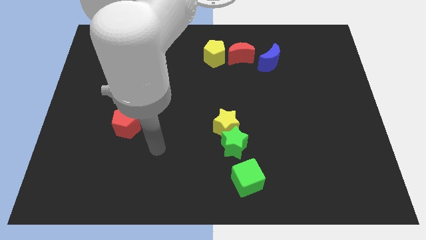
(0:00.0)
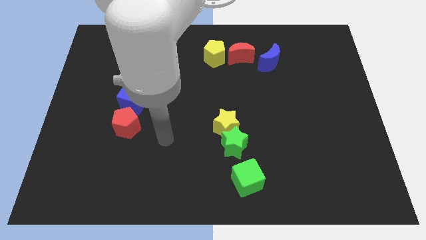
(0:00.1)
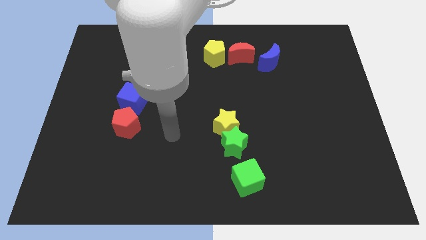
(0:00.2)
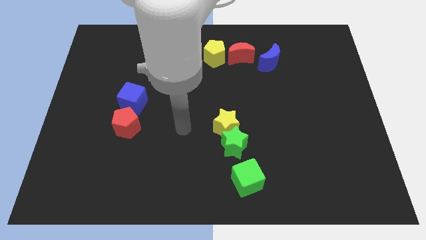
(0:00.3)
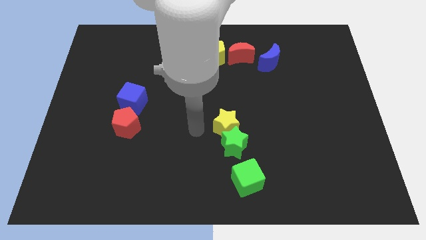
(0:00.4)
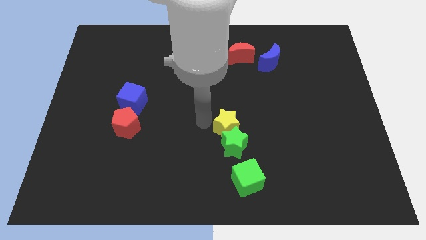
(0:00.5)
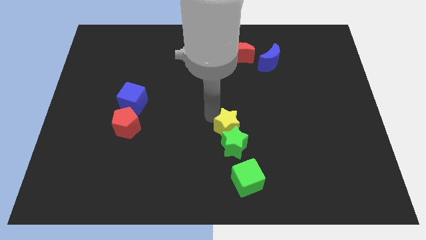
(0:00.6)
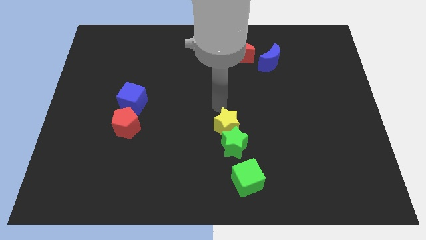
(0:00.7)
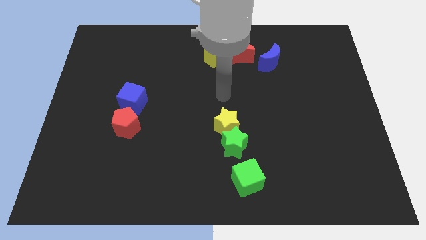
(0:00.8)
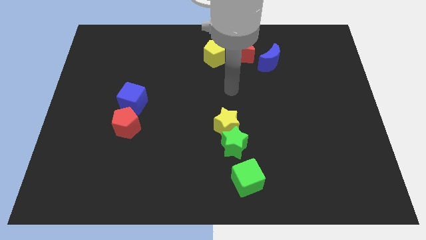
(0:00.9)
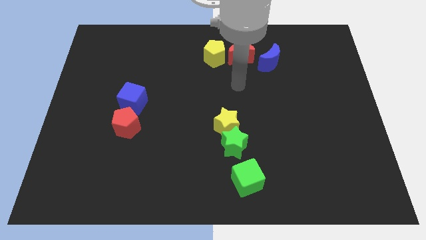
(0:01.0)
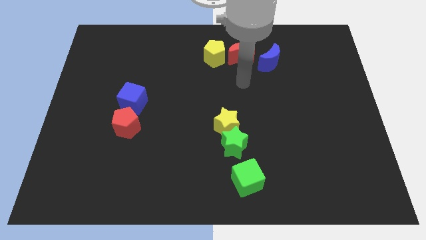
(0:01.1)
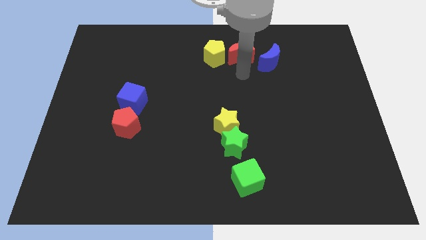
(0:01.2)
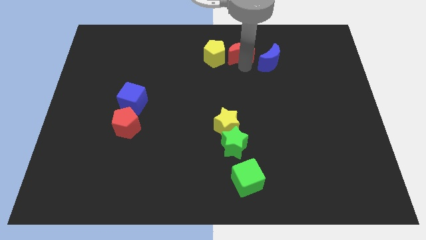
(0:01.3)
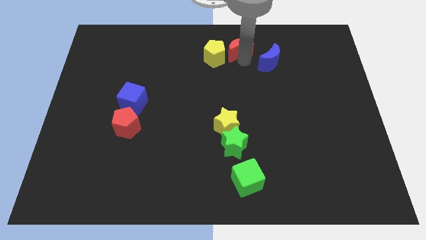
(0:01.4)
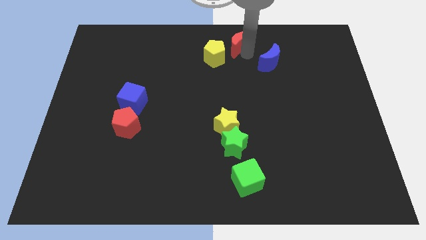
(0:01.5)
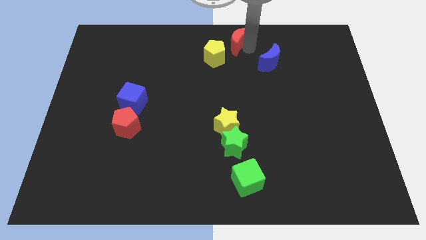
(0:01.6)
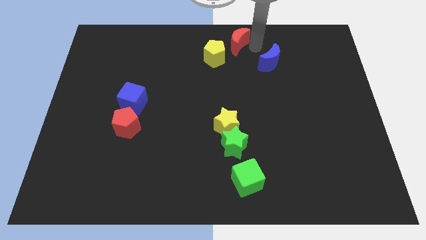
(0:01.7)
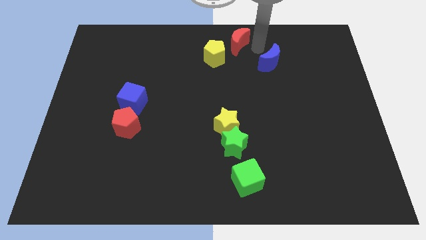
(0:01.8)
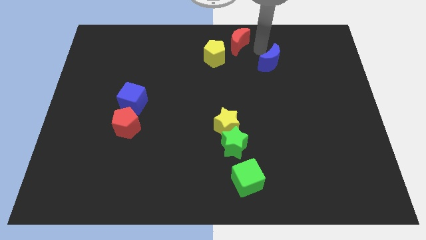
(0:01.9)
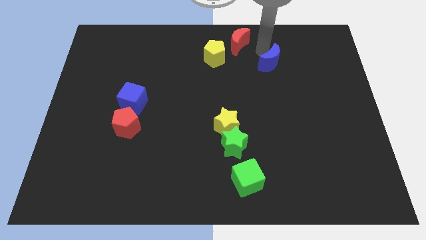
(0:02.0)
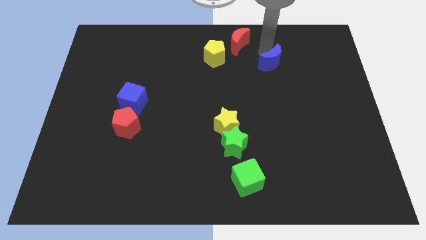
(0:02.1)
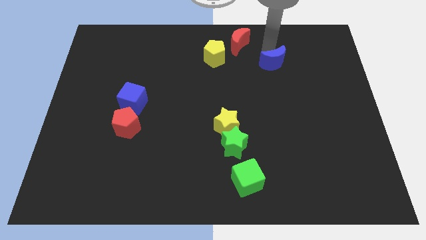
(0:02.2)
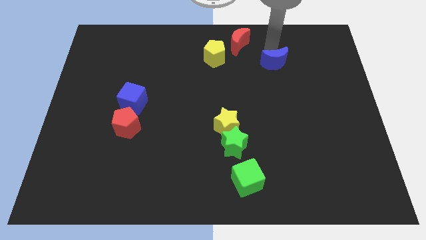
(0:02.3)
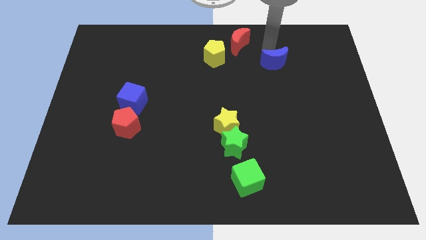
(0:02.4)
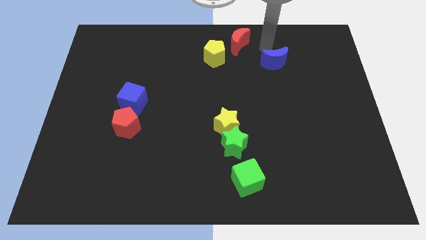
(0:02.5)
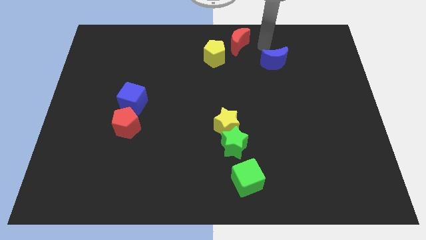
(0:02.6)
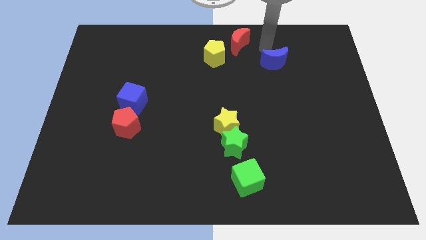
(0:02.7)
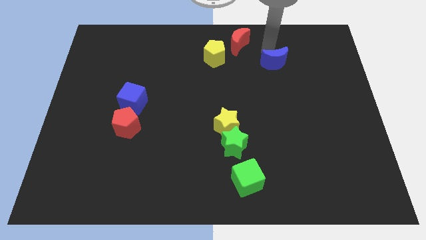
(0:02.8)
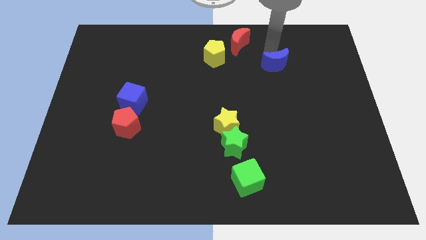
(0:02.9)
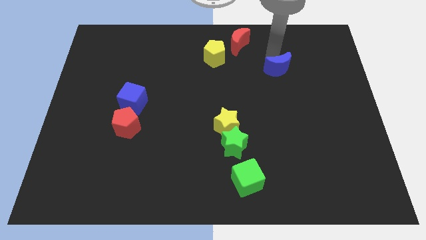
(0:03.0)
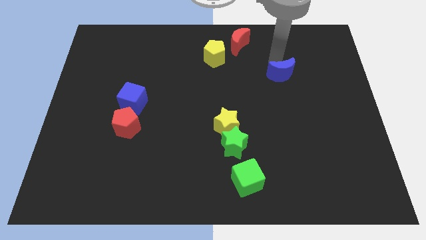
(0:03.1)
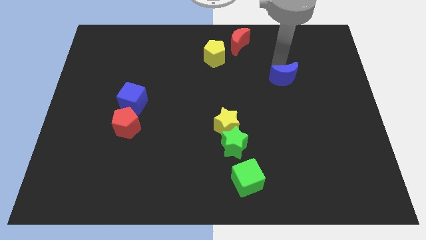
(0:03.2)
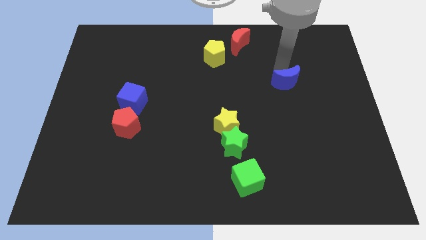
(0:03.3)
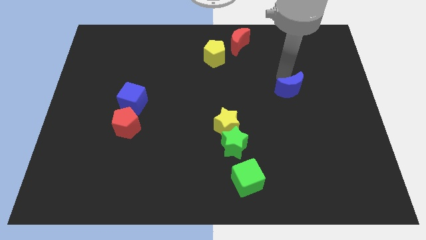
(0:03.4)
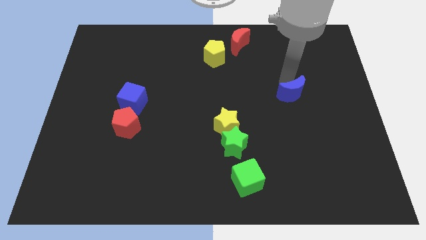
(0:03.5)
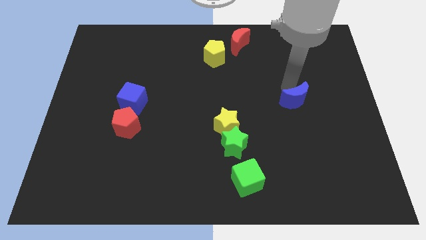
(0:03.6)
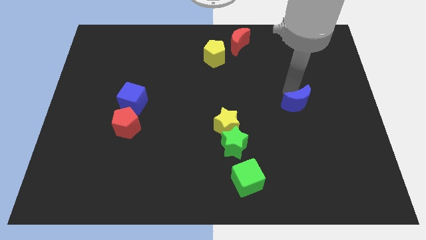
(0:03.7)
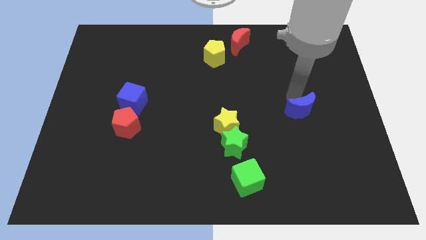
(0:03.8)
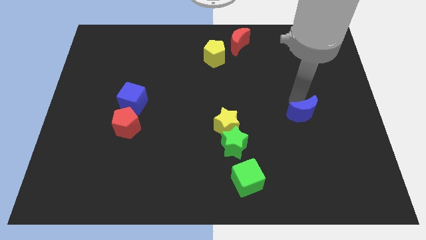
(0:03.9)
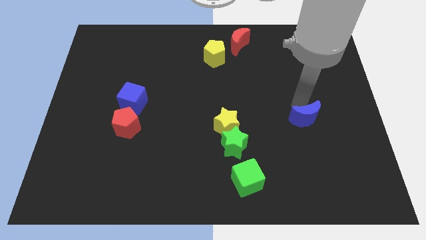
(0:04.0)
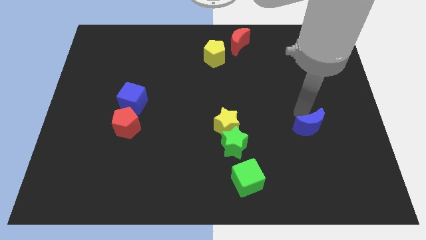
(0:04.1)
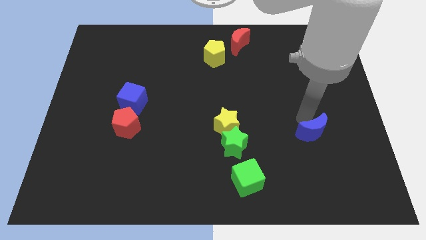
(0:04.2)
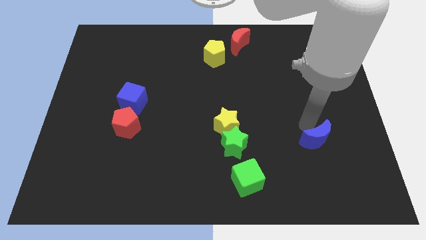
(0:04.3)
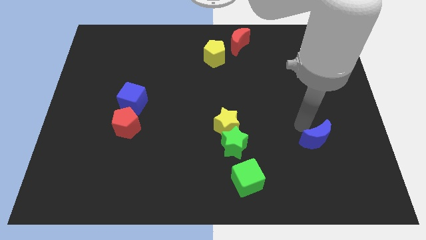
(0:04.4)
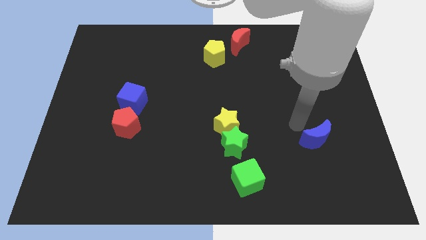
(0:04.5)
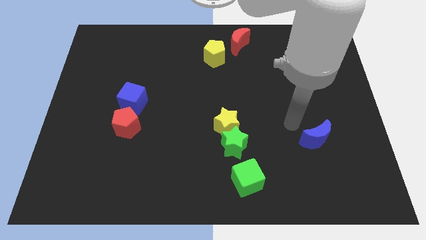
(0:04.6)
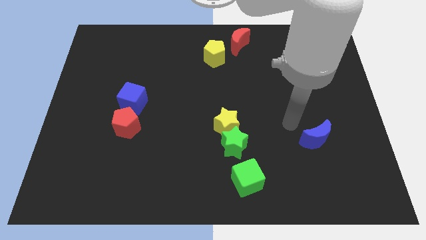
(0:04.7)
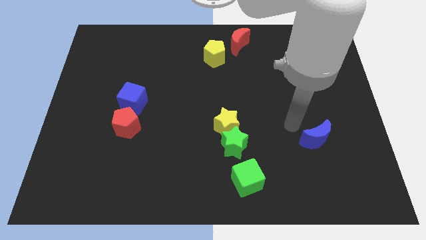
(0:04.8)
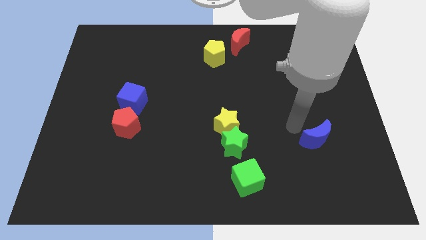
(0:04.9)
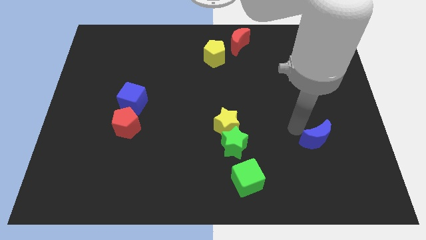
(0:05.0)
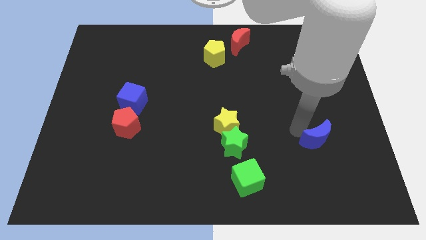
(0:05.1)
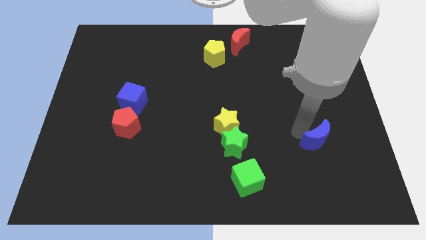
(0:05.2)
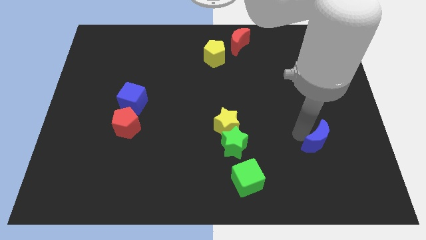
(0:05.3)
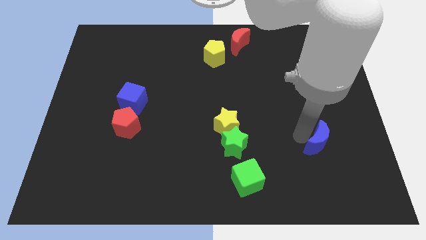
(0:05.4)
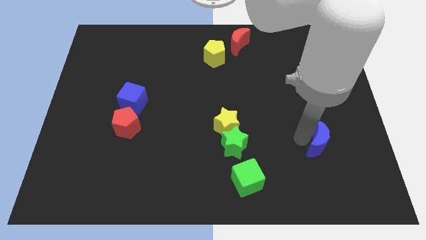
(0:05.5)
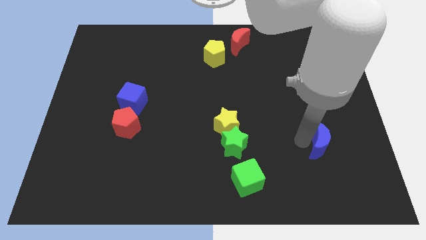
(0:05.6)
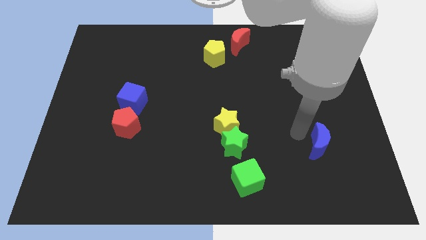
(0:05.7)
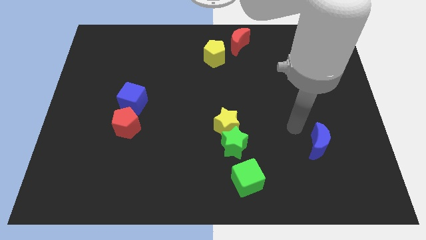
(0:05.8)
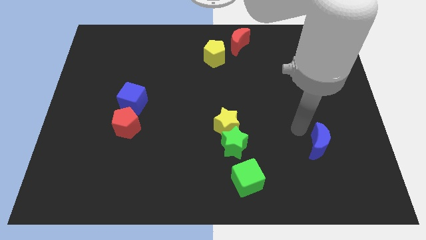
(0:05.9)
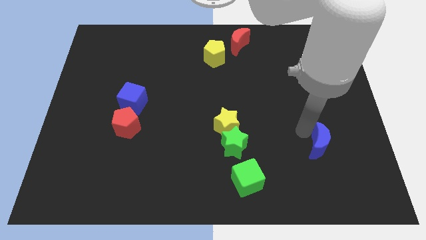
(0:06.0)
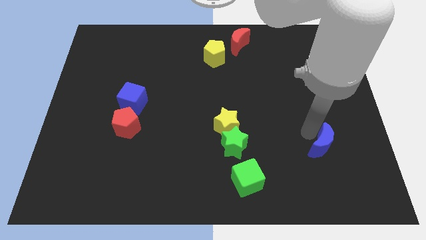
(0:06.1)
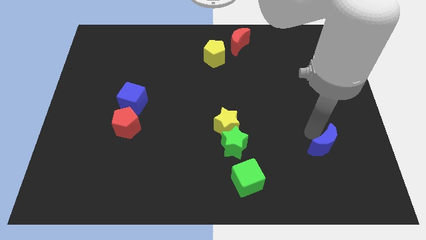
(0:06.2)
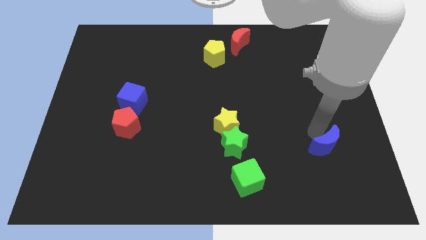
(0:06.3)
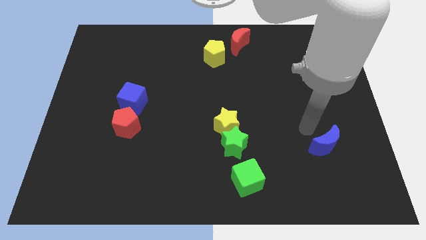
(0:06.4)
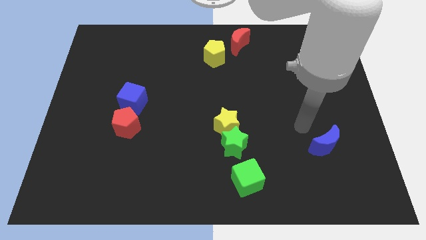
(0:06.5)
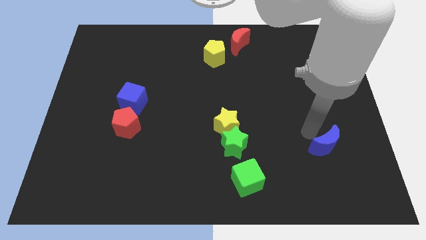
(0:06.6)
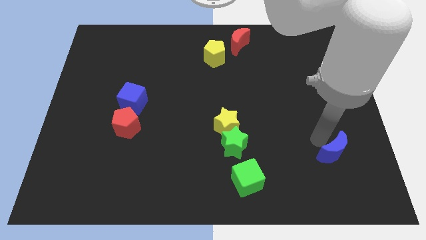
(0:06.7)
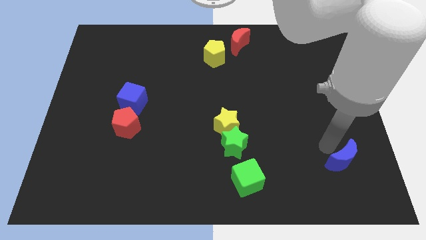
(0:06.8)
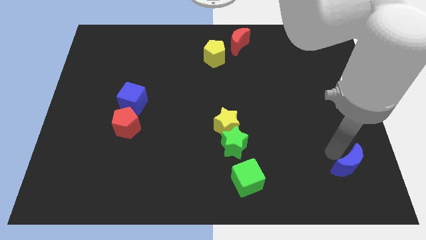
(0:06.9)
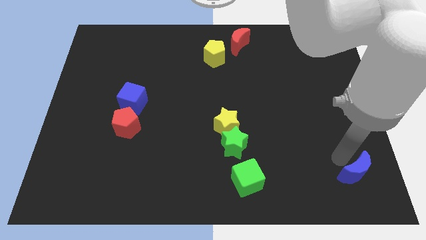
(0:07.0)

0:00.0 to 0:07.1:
move the blue moon to the bottom right of the board

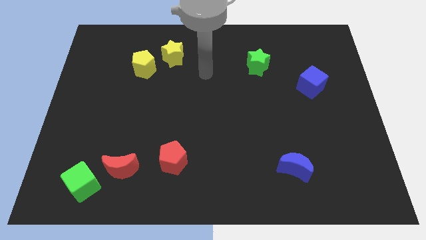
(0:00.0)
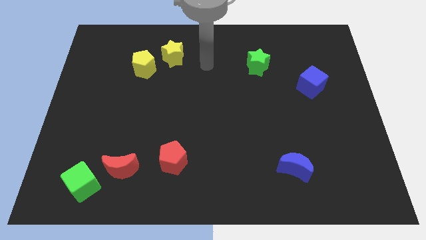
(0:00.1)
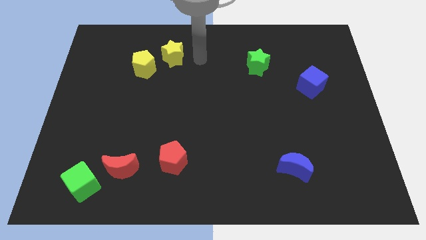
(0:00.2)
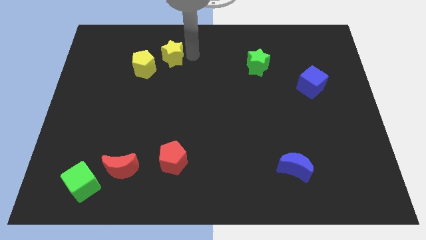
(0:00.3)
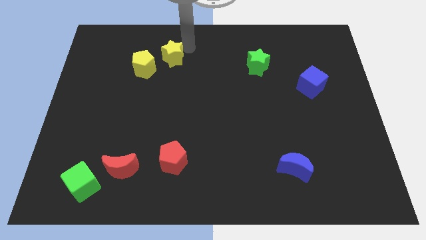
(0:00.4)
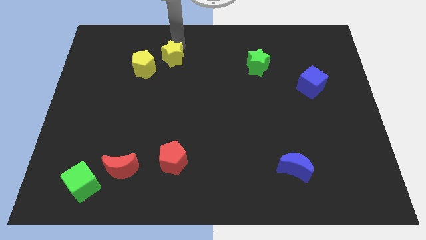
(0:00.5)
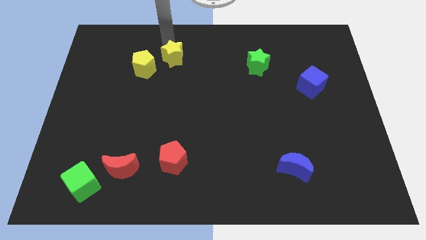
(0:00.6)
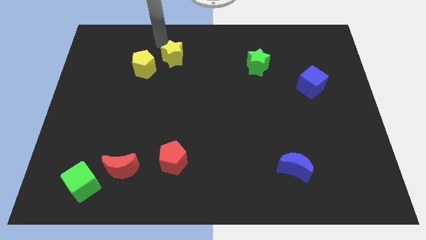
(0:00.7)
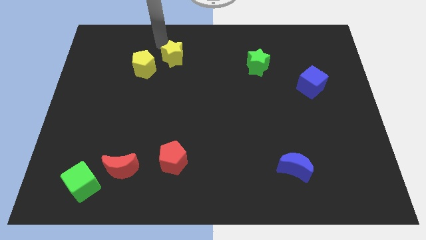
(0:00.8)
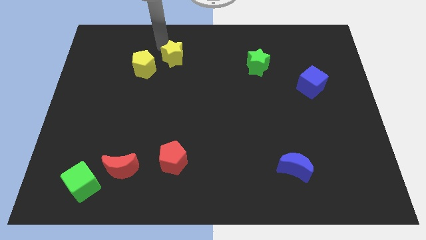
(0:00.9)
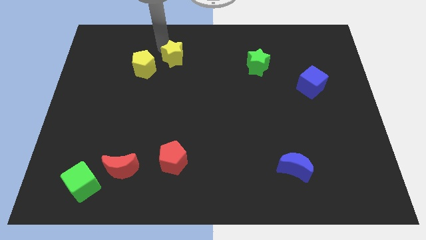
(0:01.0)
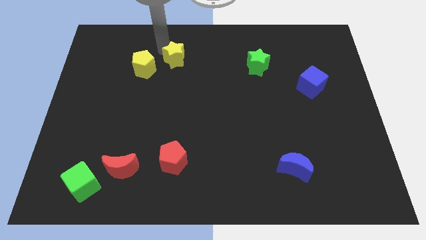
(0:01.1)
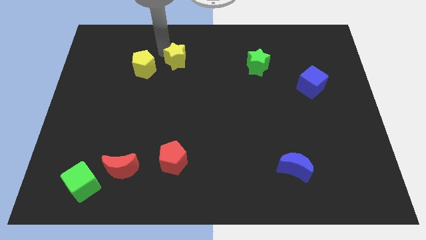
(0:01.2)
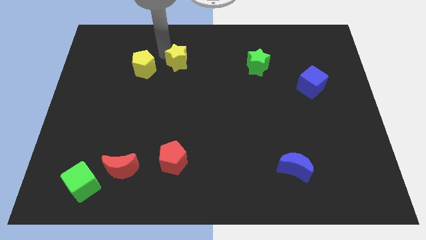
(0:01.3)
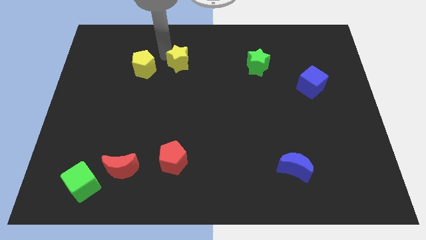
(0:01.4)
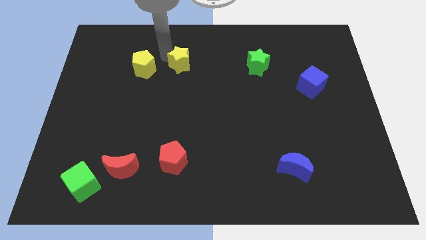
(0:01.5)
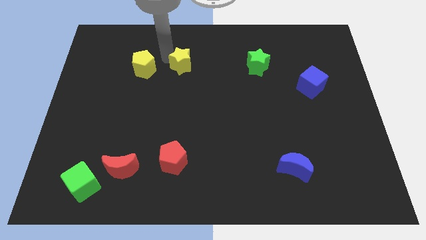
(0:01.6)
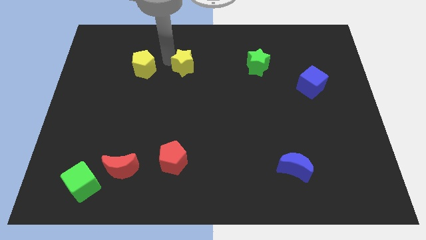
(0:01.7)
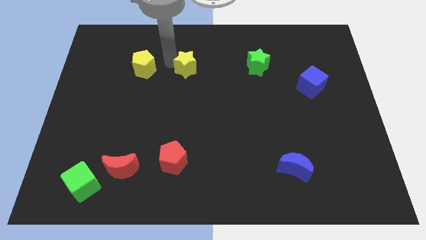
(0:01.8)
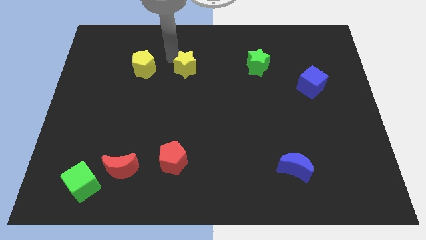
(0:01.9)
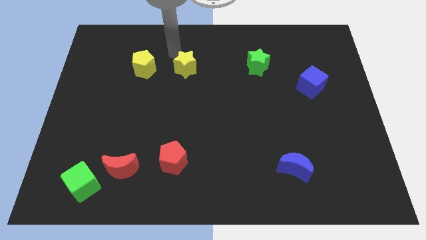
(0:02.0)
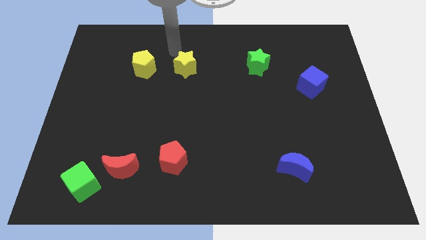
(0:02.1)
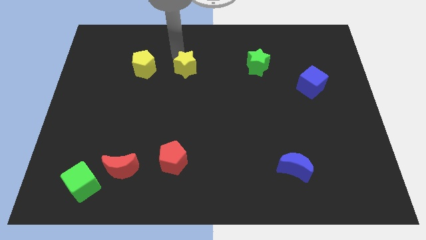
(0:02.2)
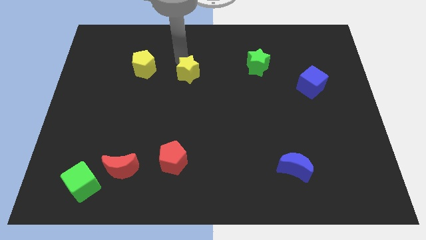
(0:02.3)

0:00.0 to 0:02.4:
push the yellow star to the center of the board
